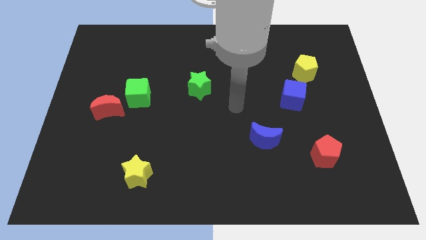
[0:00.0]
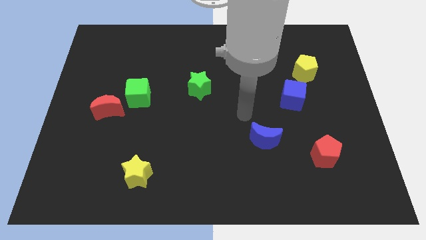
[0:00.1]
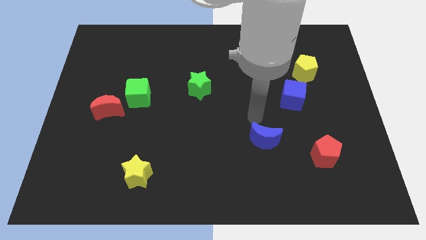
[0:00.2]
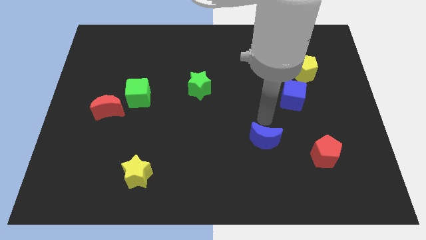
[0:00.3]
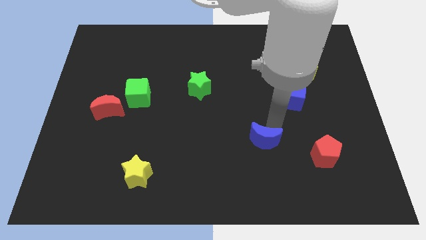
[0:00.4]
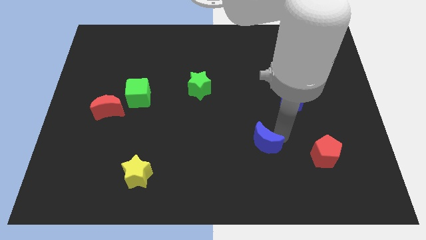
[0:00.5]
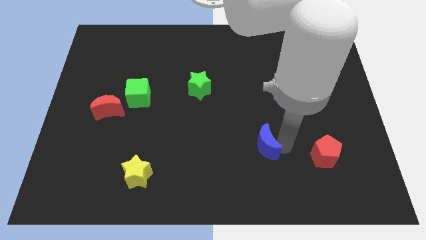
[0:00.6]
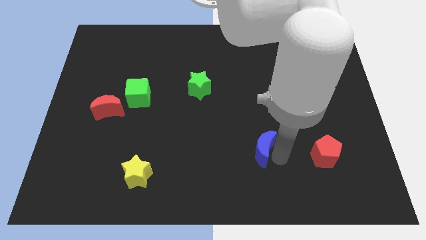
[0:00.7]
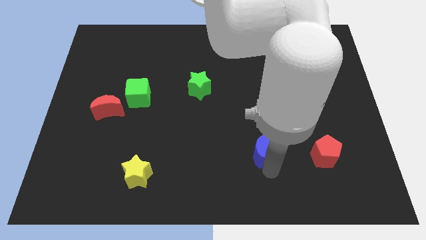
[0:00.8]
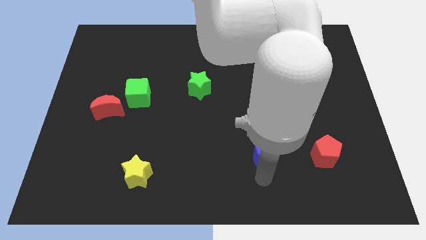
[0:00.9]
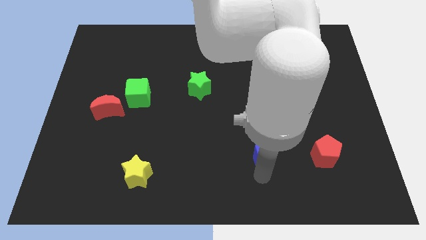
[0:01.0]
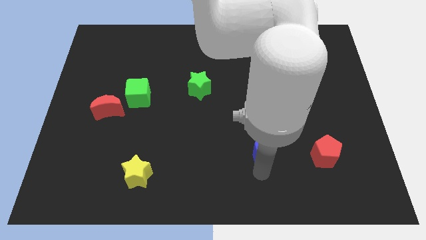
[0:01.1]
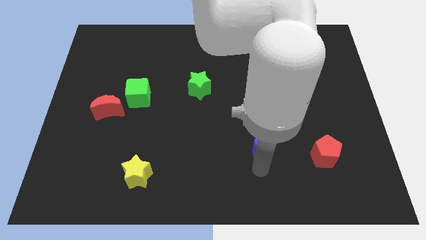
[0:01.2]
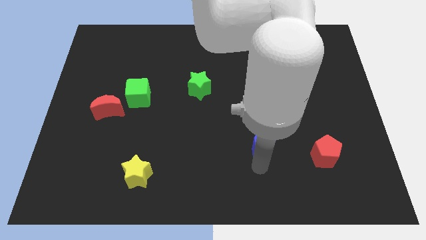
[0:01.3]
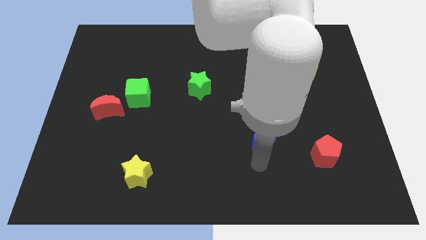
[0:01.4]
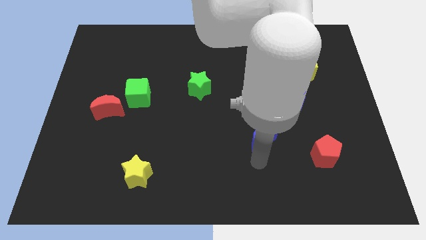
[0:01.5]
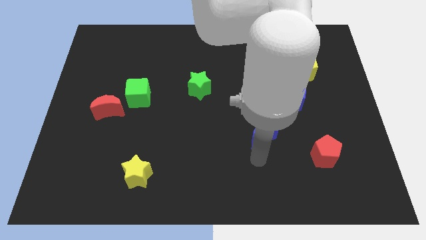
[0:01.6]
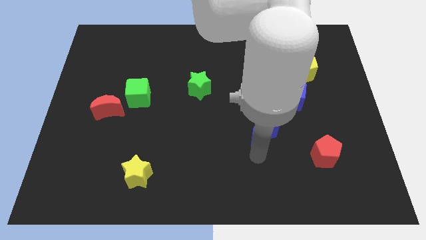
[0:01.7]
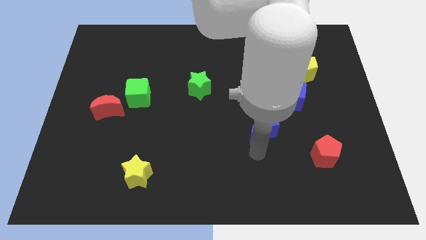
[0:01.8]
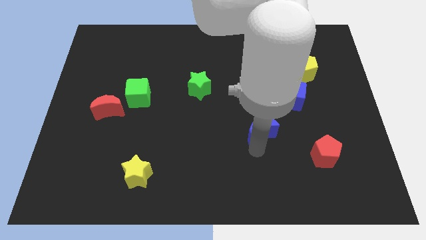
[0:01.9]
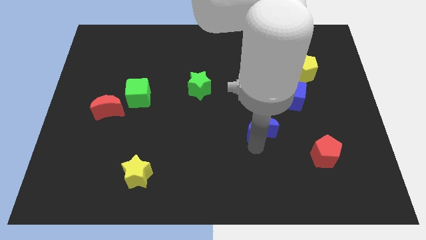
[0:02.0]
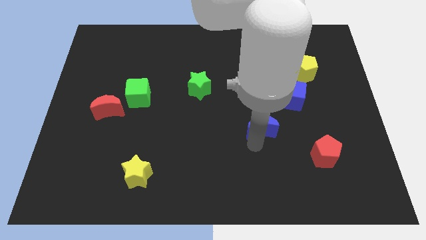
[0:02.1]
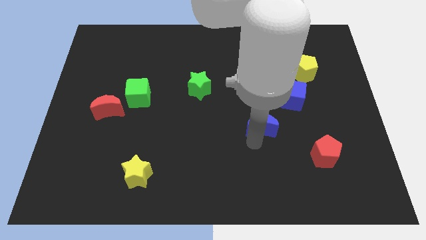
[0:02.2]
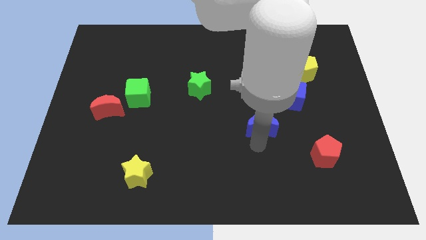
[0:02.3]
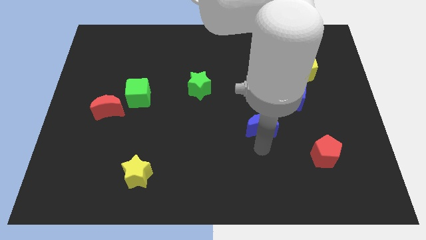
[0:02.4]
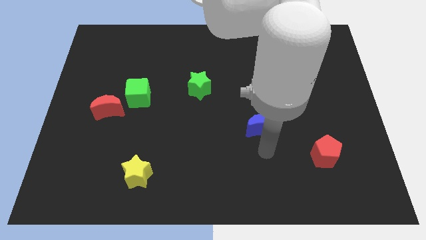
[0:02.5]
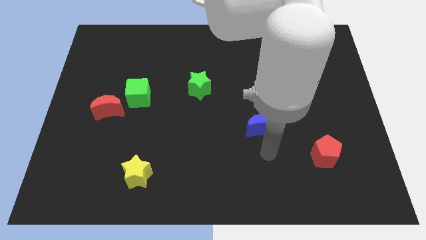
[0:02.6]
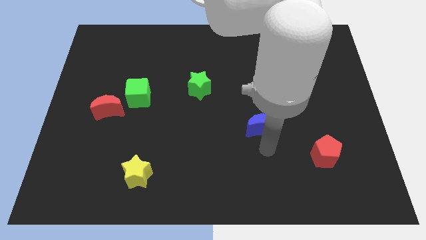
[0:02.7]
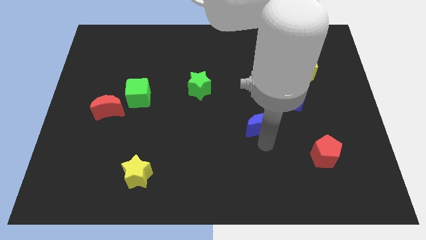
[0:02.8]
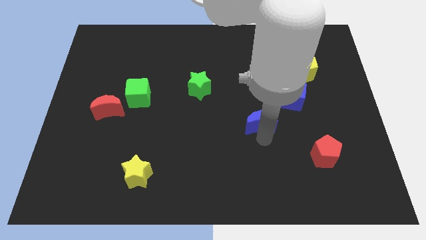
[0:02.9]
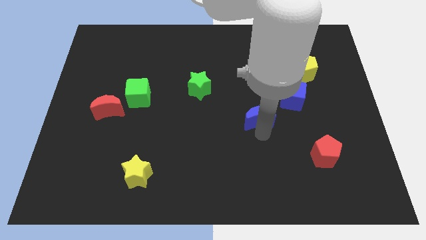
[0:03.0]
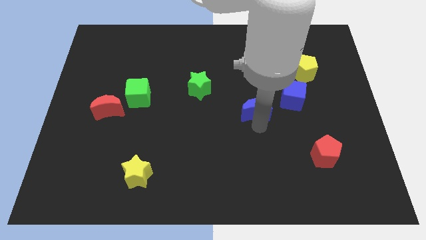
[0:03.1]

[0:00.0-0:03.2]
push the blue moon a little up

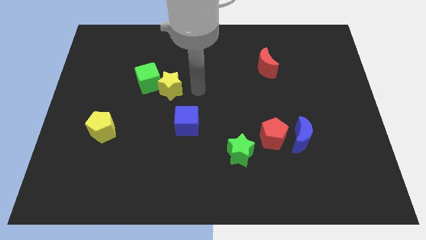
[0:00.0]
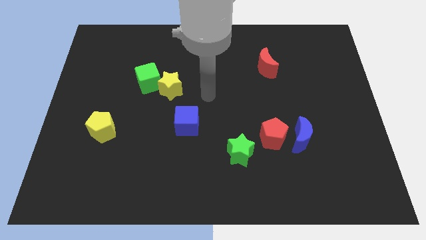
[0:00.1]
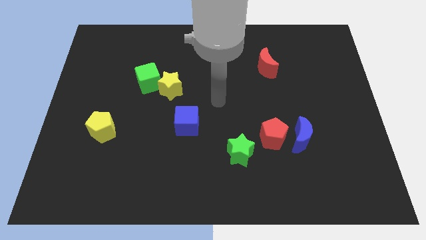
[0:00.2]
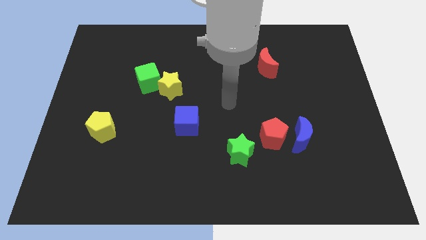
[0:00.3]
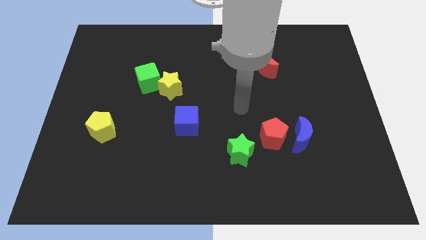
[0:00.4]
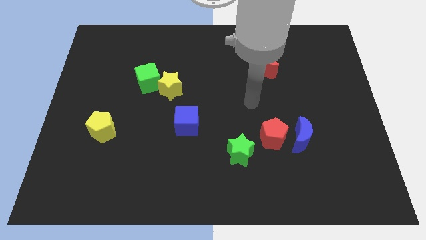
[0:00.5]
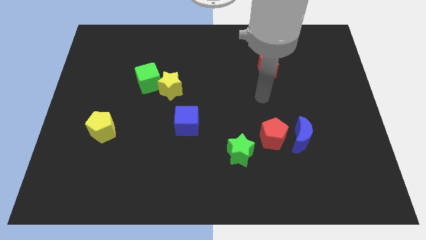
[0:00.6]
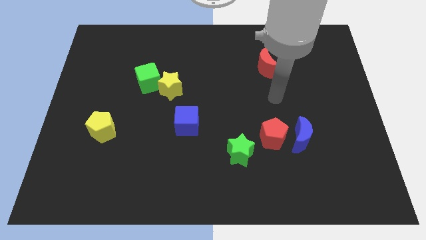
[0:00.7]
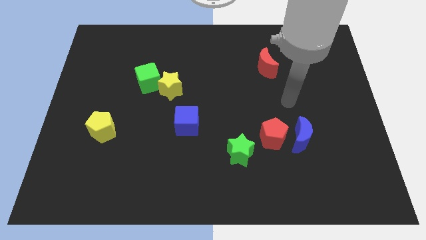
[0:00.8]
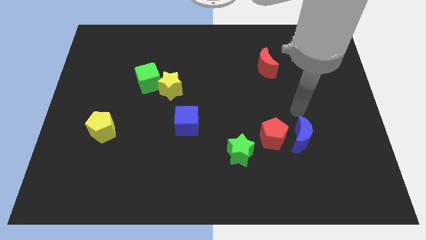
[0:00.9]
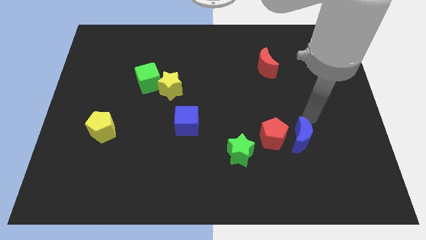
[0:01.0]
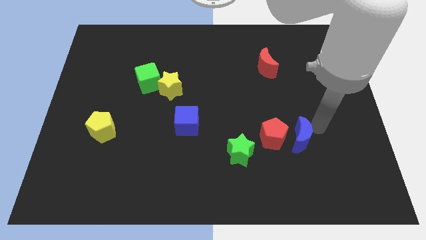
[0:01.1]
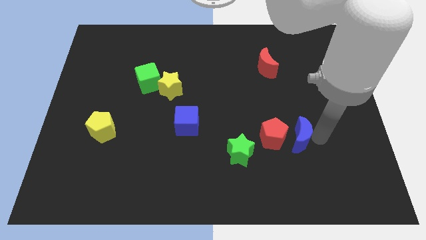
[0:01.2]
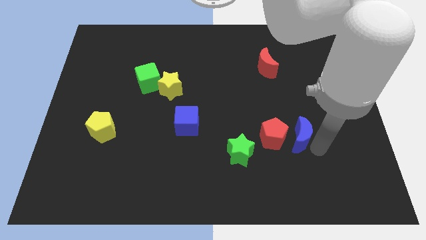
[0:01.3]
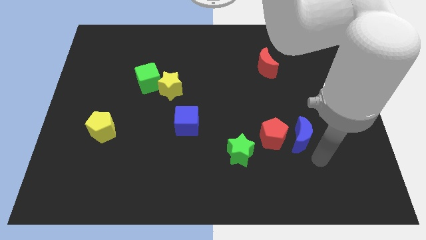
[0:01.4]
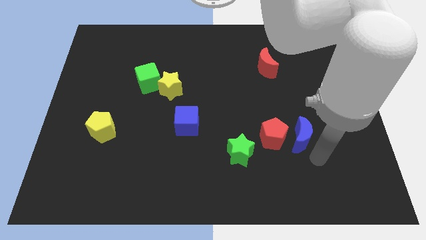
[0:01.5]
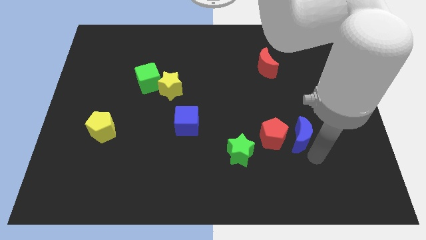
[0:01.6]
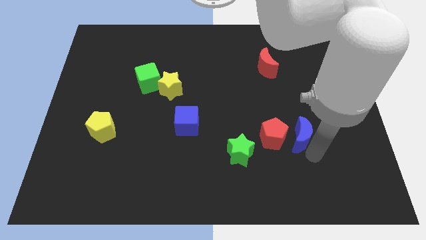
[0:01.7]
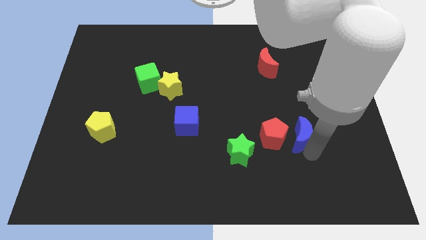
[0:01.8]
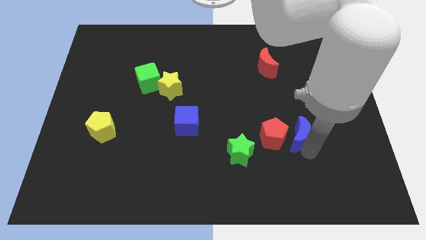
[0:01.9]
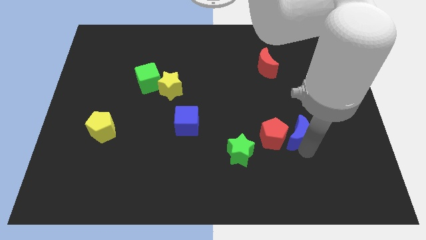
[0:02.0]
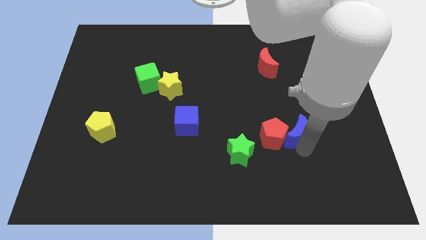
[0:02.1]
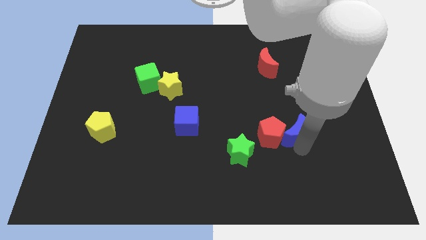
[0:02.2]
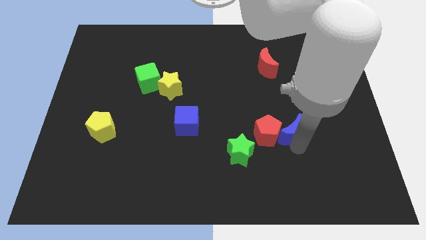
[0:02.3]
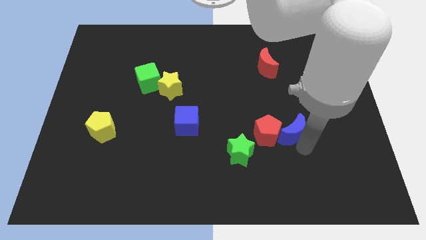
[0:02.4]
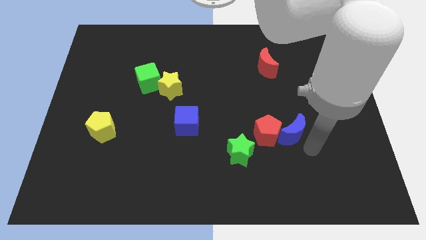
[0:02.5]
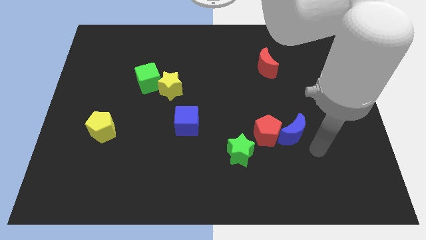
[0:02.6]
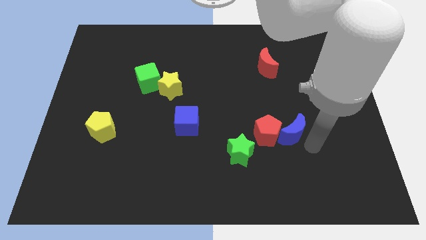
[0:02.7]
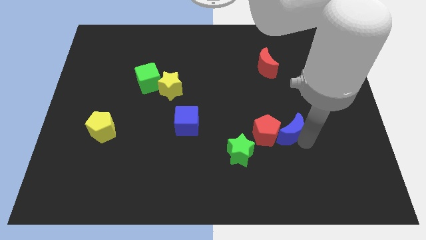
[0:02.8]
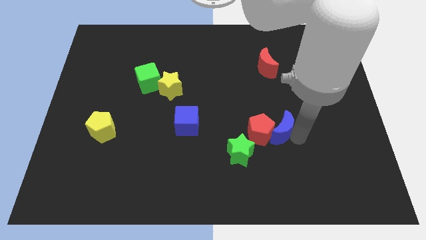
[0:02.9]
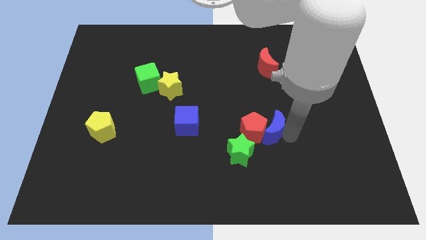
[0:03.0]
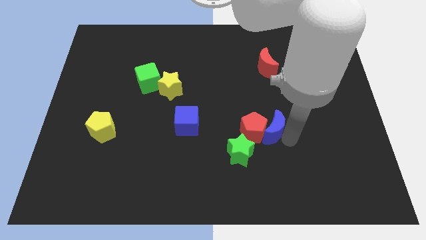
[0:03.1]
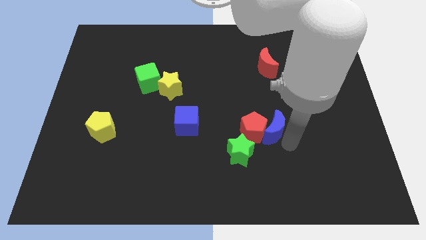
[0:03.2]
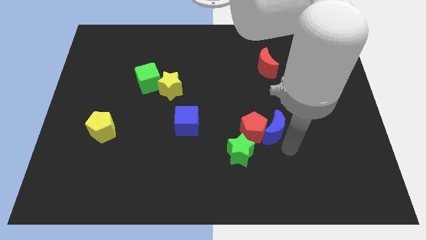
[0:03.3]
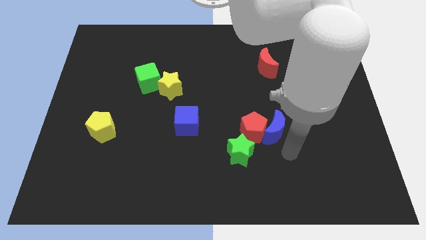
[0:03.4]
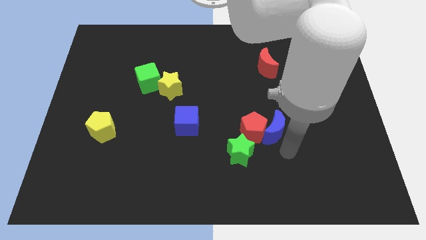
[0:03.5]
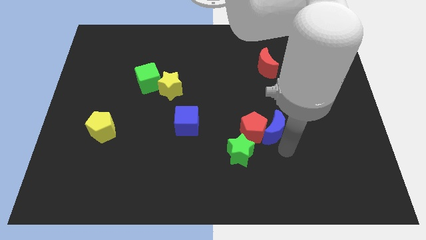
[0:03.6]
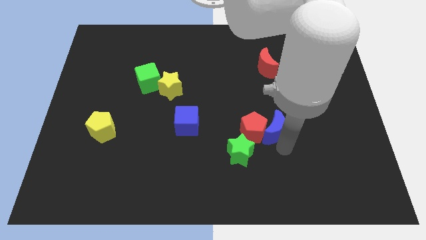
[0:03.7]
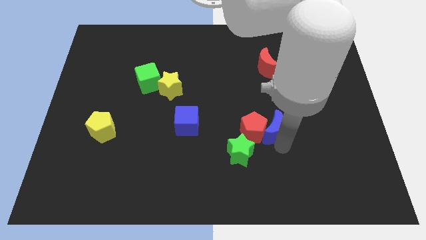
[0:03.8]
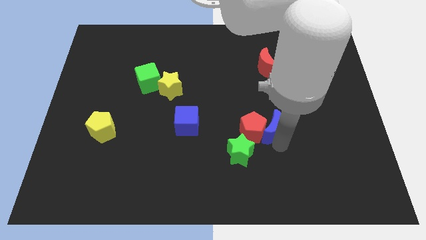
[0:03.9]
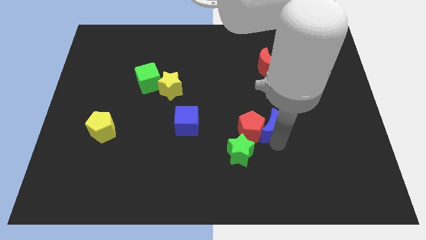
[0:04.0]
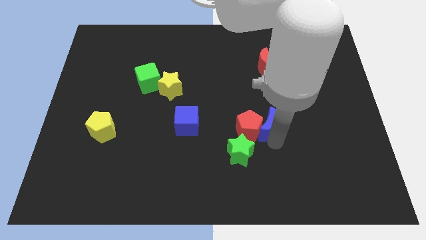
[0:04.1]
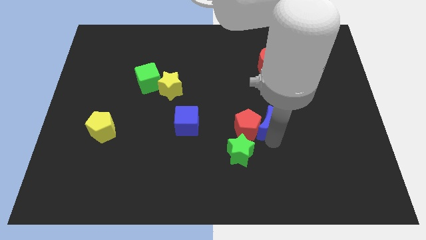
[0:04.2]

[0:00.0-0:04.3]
push the blue moon to the left a little bit

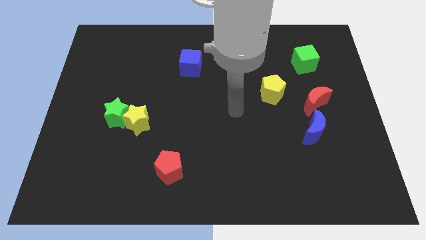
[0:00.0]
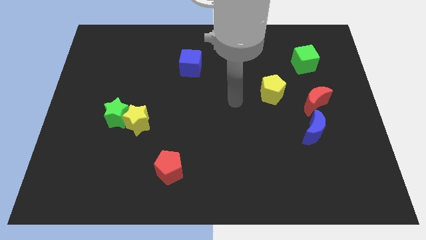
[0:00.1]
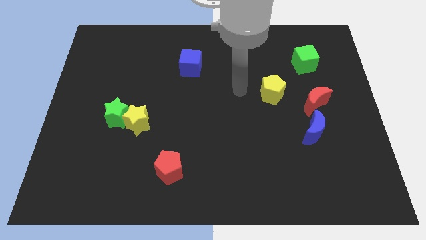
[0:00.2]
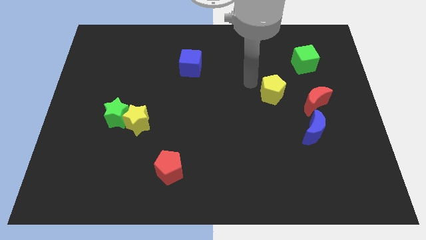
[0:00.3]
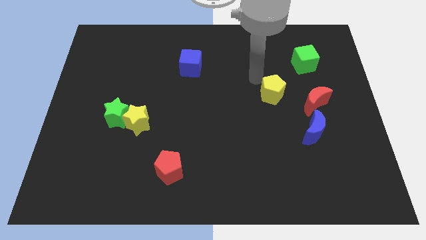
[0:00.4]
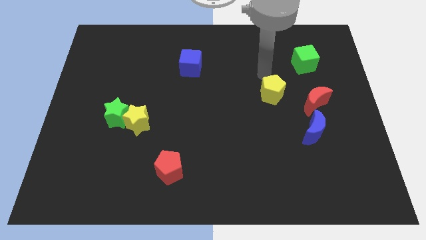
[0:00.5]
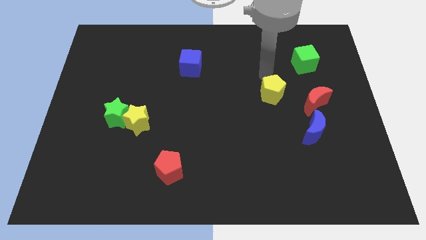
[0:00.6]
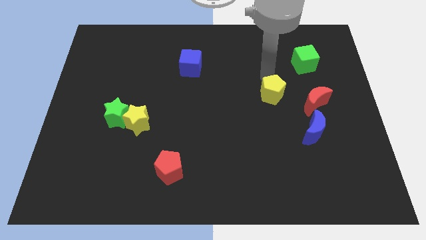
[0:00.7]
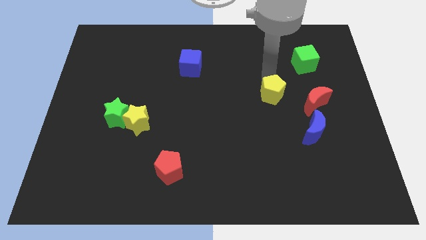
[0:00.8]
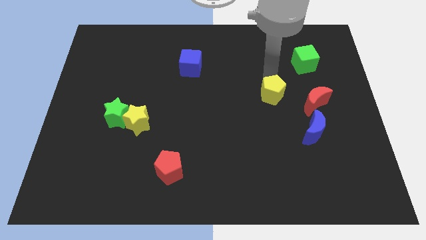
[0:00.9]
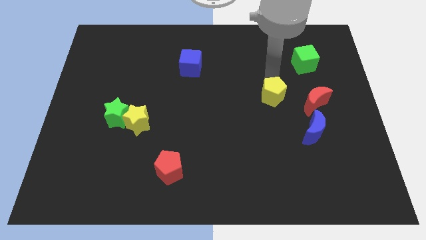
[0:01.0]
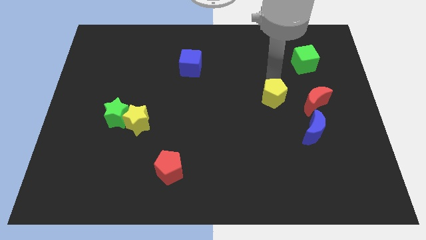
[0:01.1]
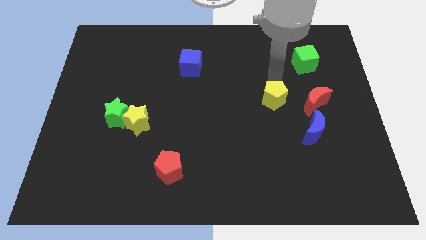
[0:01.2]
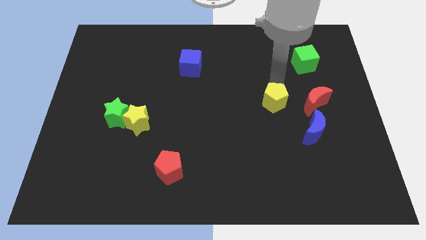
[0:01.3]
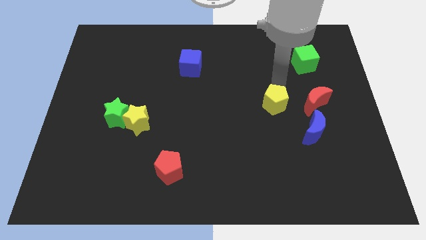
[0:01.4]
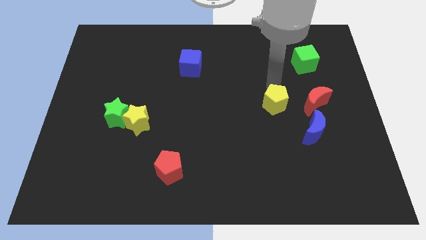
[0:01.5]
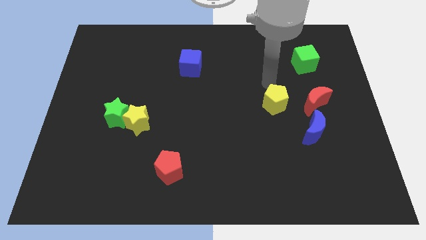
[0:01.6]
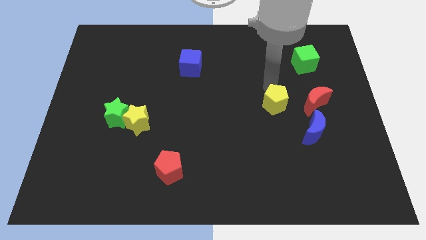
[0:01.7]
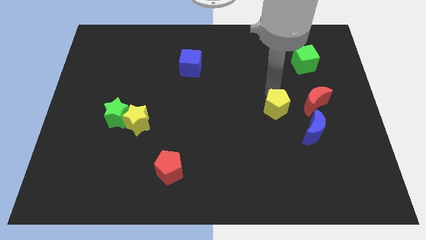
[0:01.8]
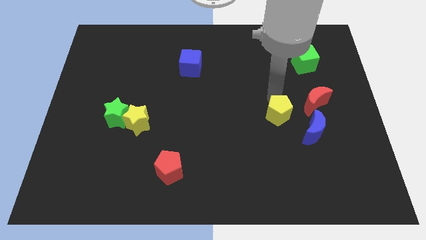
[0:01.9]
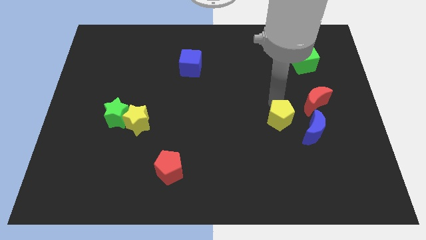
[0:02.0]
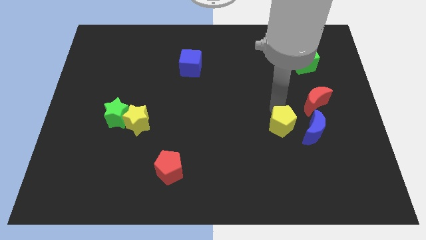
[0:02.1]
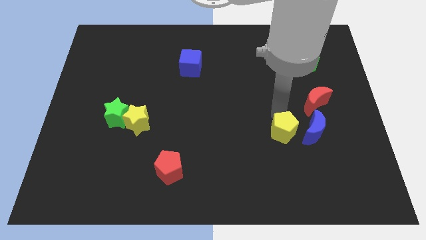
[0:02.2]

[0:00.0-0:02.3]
move the yellow pentagon down and to the right diagonally a little bit
